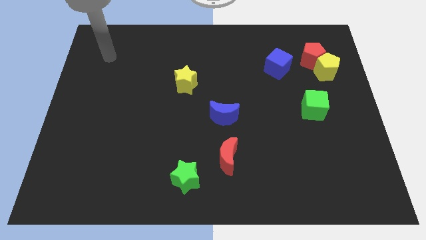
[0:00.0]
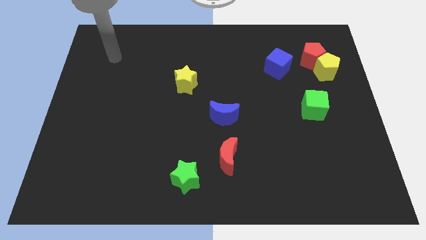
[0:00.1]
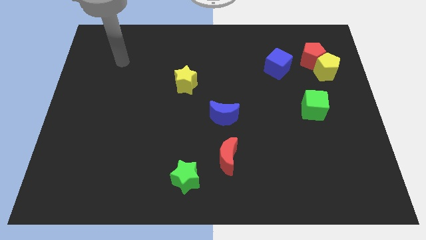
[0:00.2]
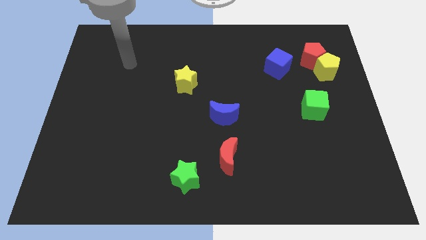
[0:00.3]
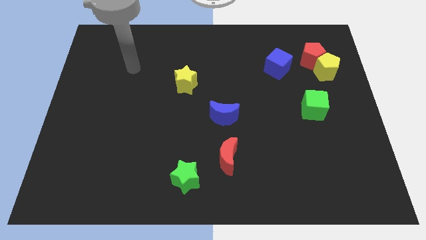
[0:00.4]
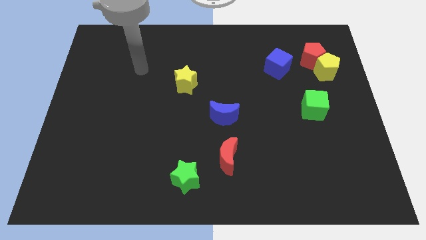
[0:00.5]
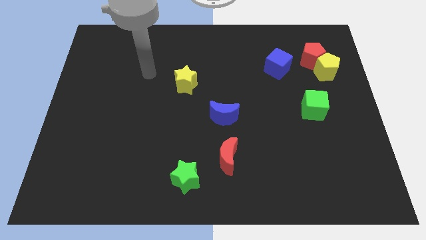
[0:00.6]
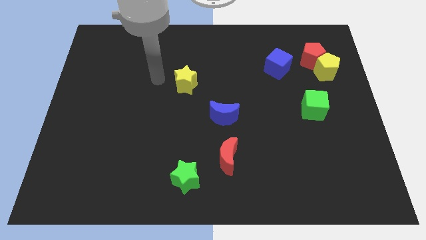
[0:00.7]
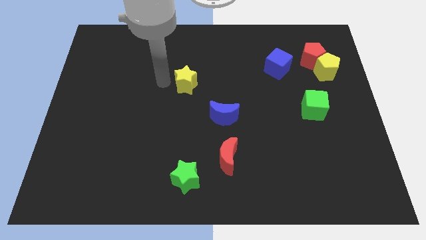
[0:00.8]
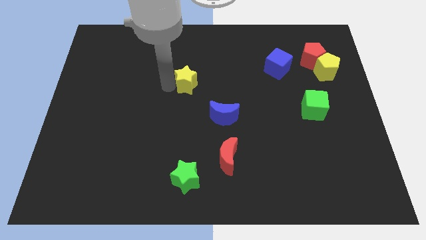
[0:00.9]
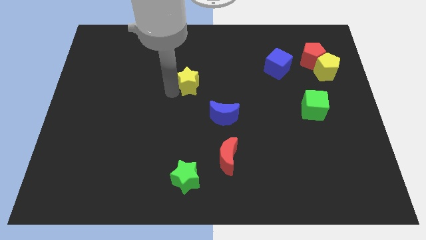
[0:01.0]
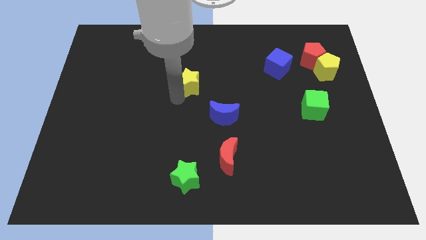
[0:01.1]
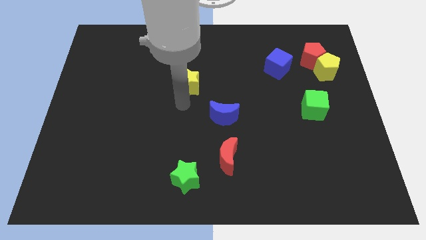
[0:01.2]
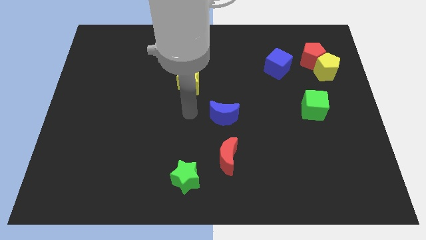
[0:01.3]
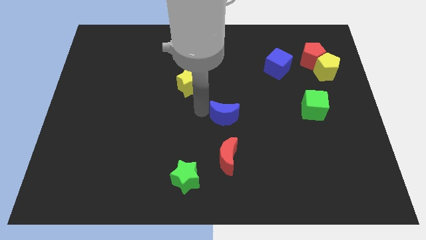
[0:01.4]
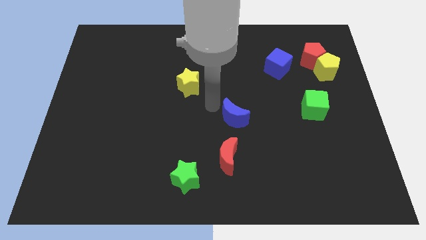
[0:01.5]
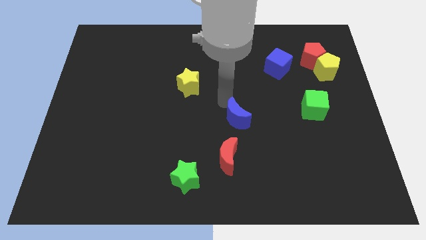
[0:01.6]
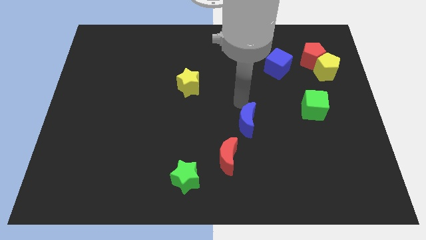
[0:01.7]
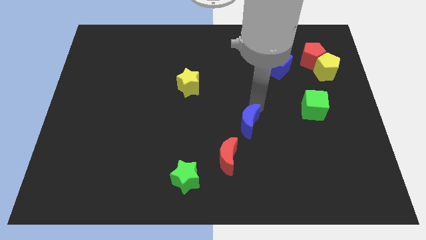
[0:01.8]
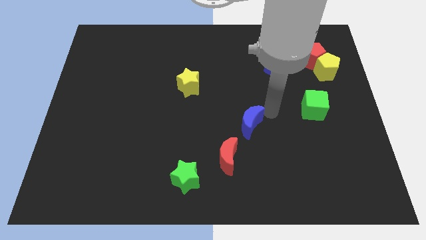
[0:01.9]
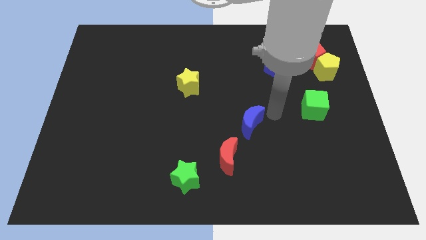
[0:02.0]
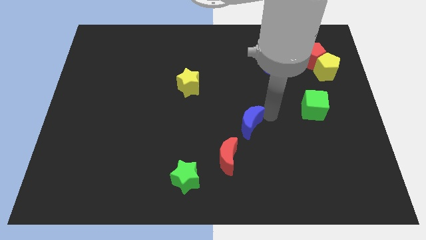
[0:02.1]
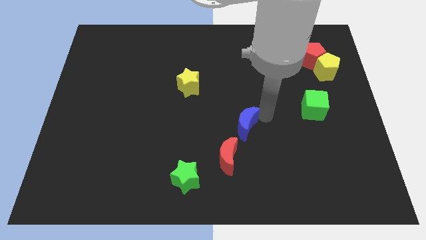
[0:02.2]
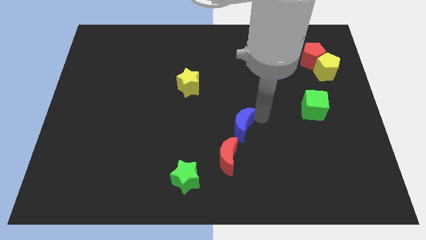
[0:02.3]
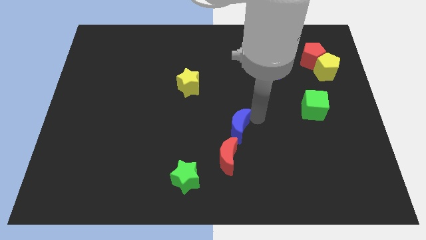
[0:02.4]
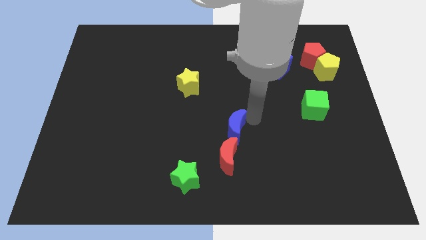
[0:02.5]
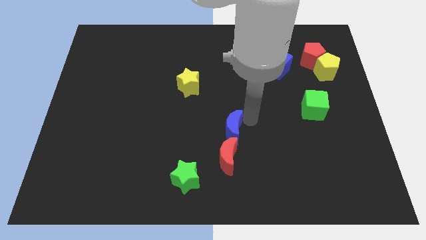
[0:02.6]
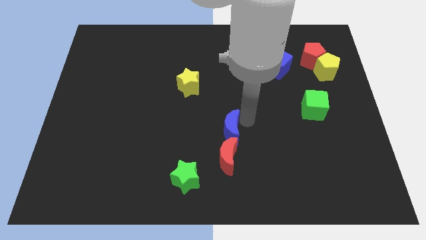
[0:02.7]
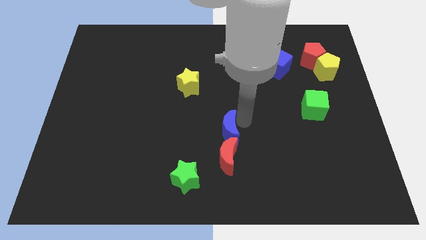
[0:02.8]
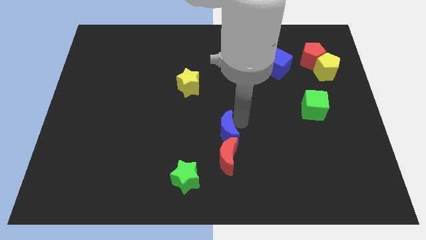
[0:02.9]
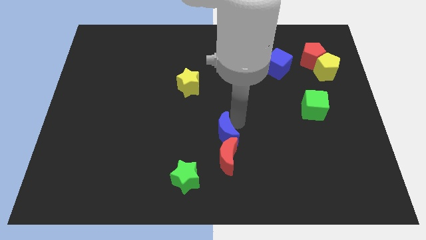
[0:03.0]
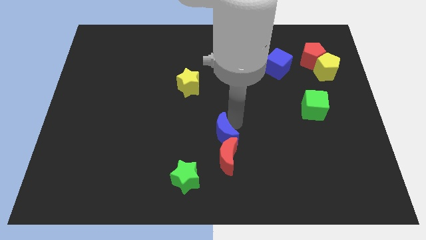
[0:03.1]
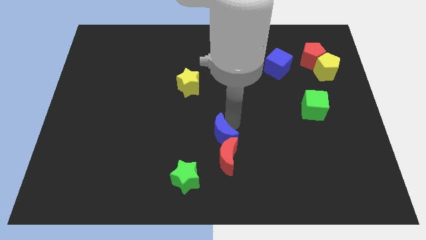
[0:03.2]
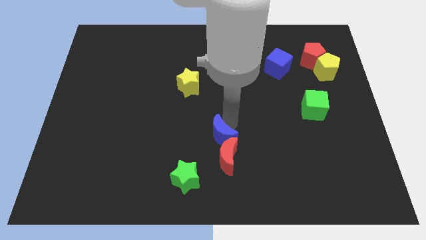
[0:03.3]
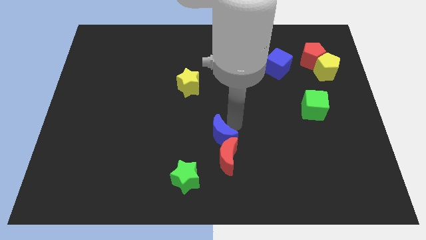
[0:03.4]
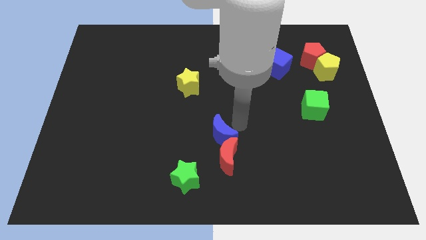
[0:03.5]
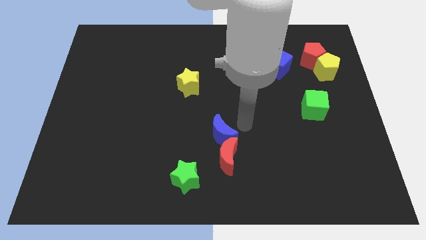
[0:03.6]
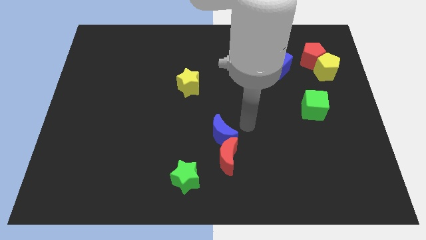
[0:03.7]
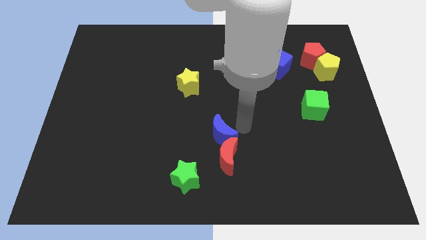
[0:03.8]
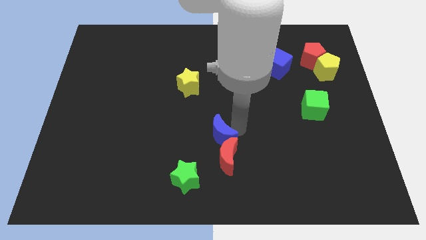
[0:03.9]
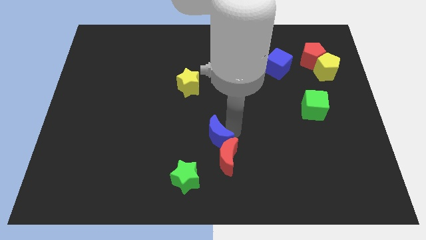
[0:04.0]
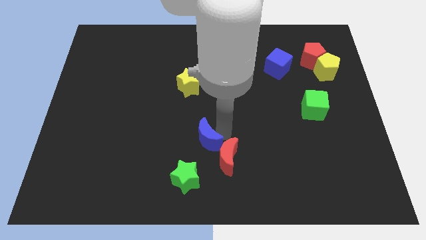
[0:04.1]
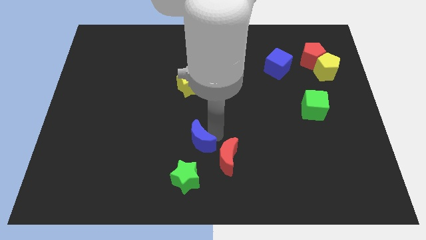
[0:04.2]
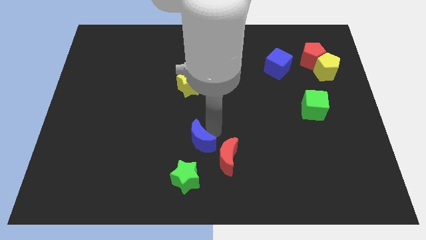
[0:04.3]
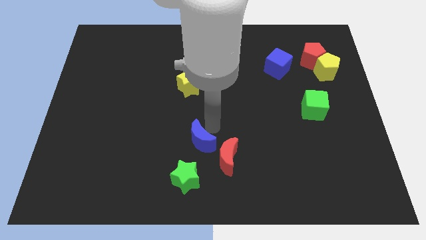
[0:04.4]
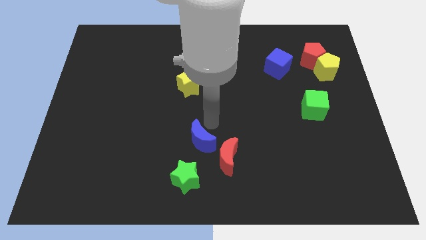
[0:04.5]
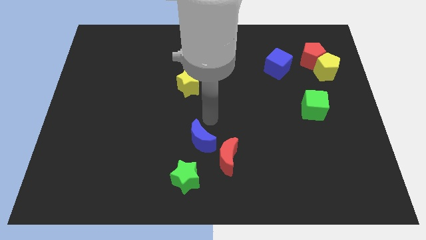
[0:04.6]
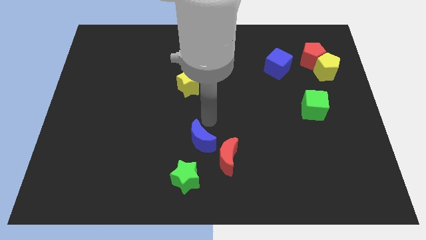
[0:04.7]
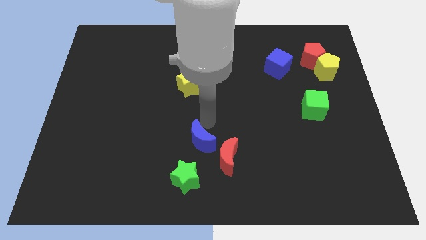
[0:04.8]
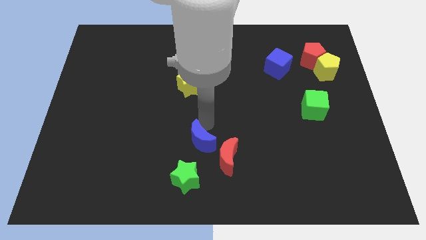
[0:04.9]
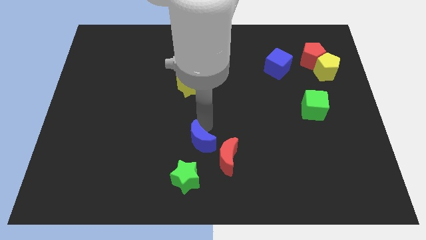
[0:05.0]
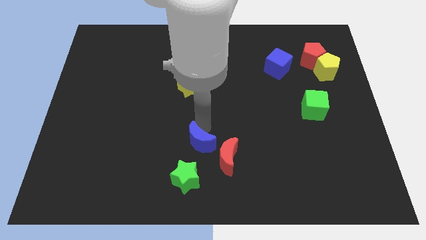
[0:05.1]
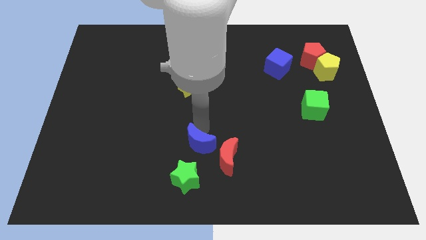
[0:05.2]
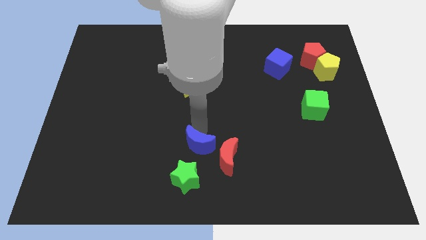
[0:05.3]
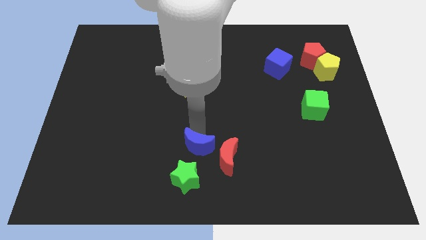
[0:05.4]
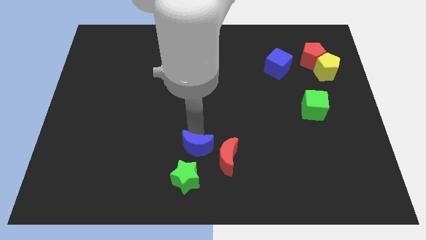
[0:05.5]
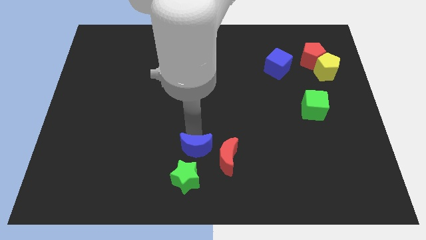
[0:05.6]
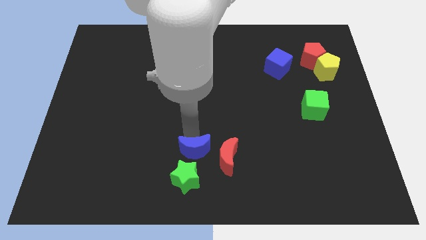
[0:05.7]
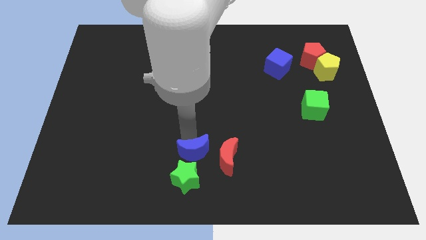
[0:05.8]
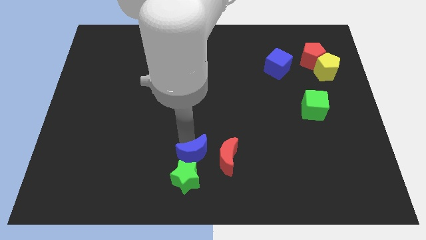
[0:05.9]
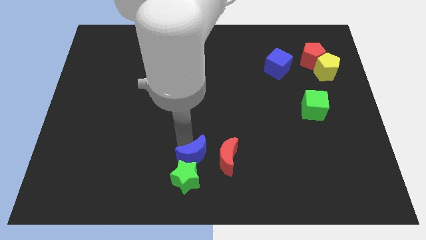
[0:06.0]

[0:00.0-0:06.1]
put the blue moon to the bottom side
